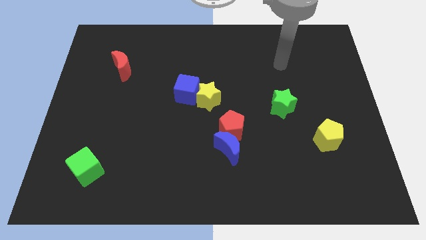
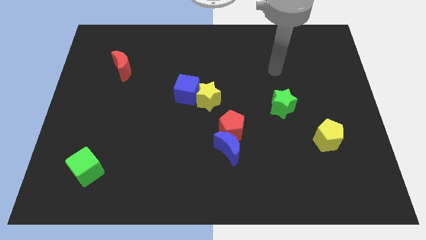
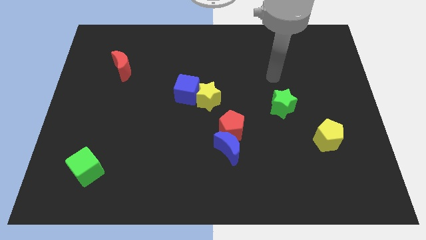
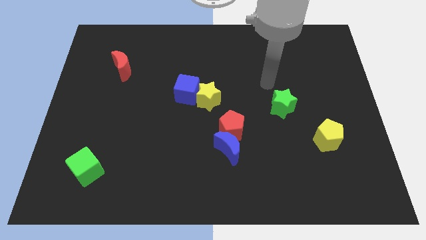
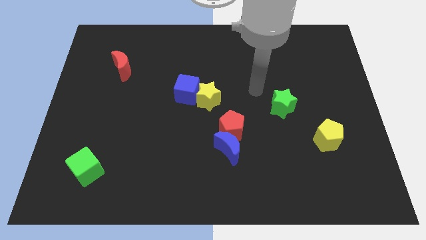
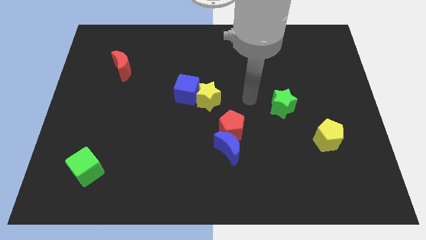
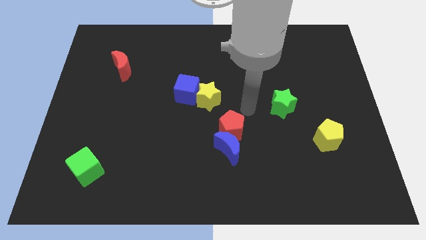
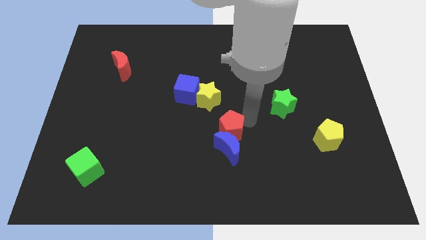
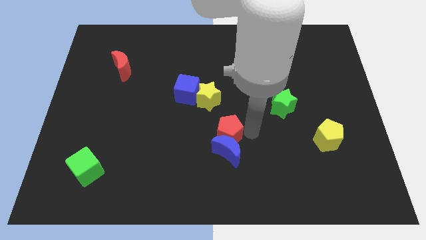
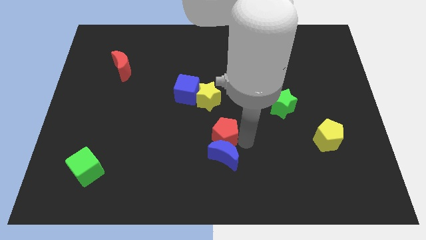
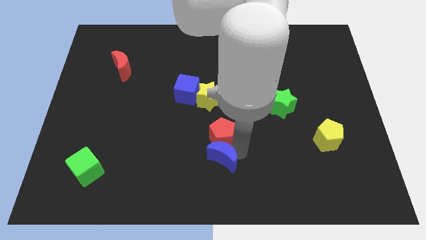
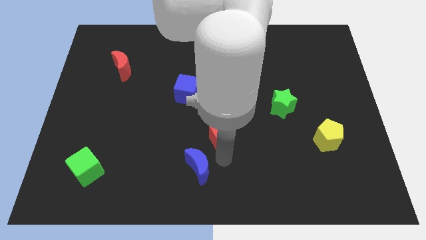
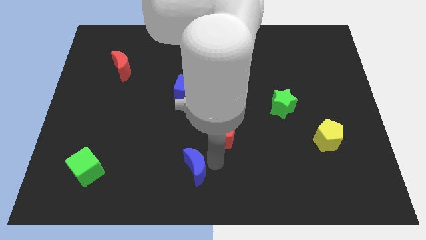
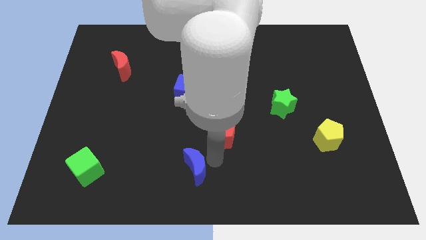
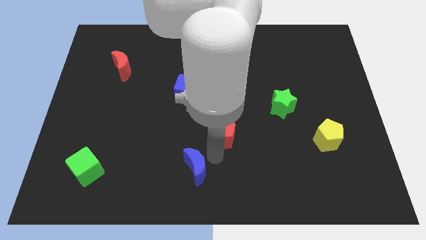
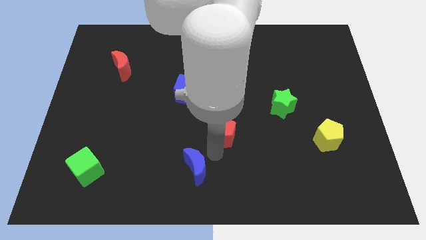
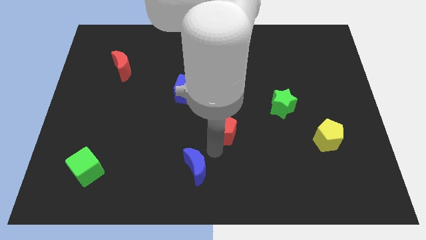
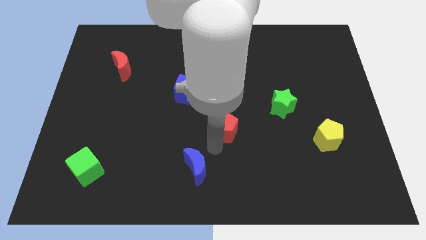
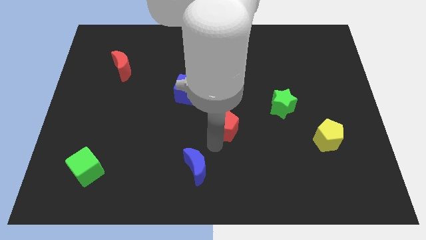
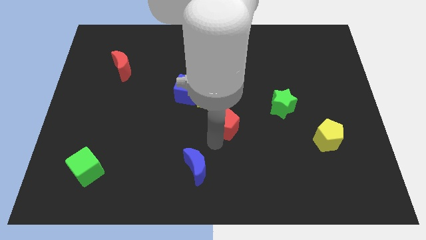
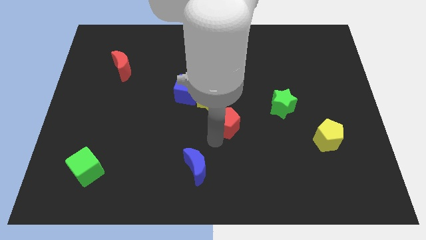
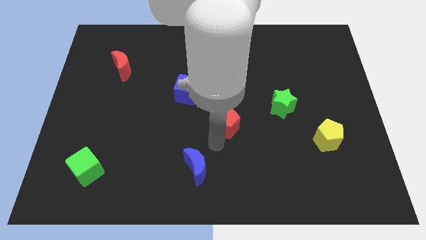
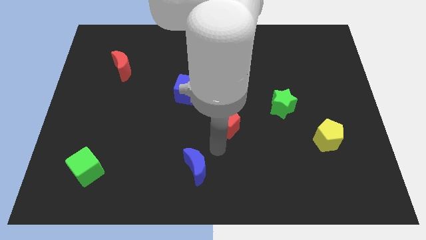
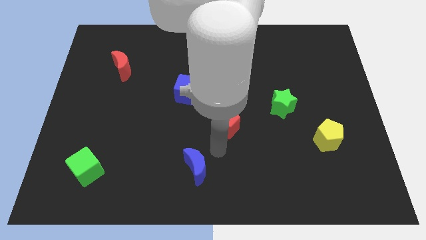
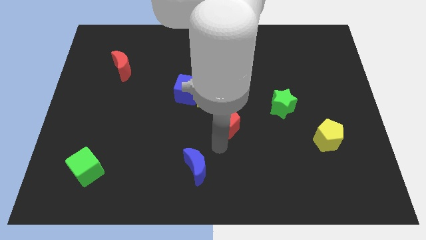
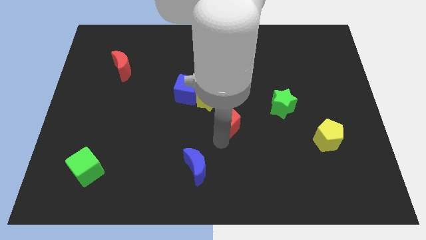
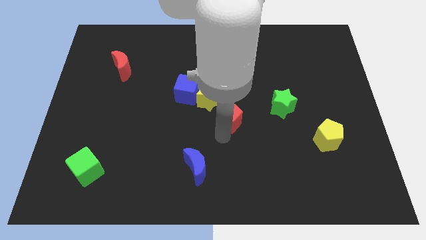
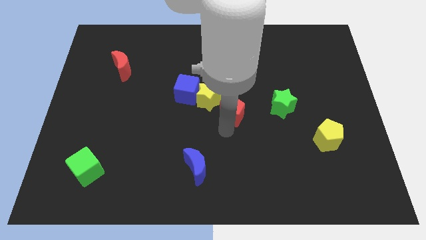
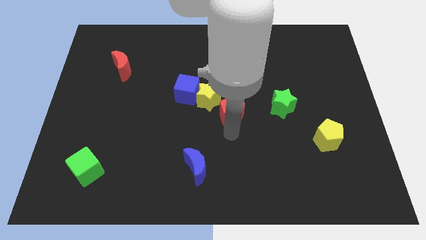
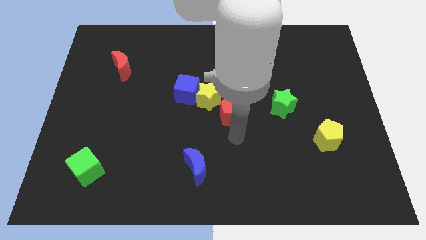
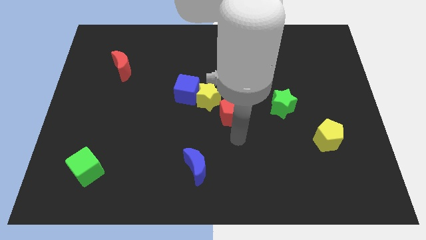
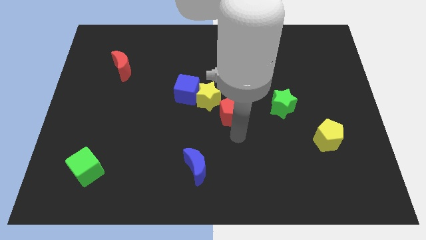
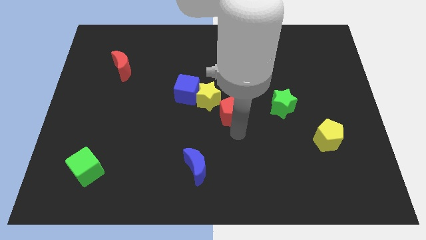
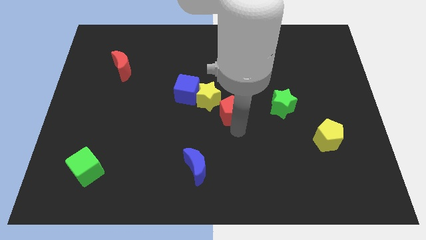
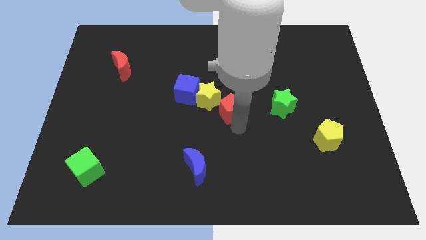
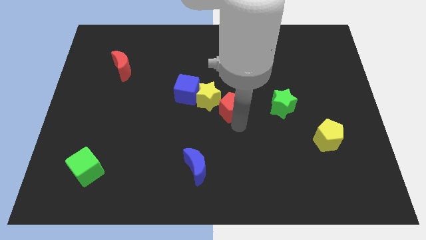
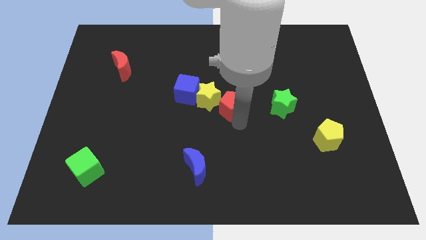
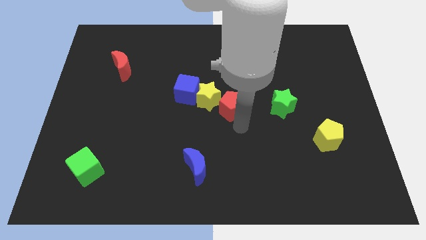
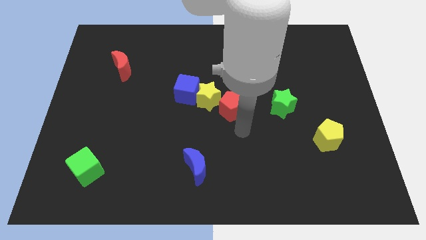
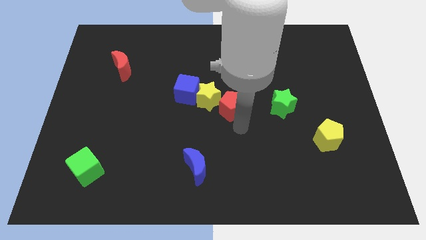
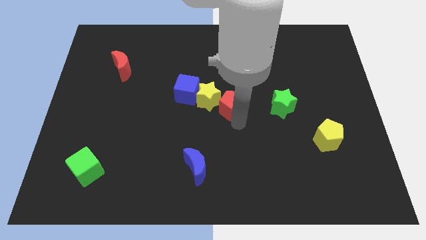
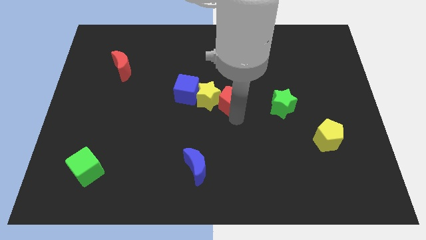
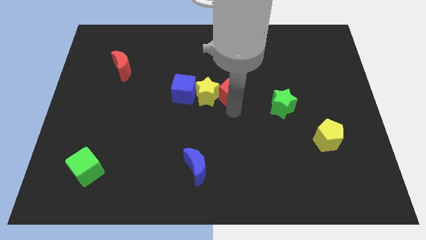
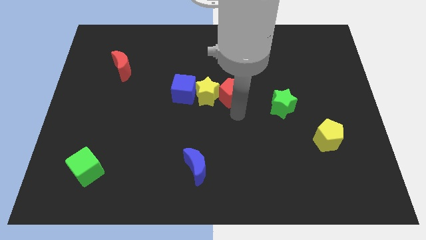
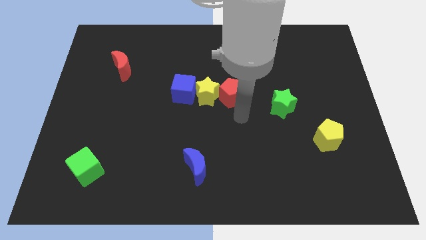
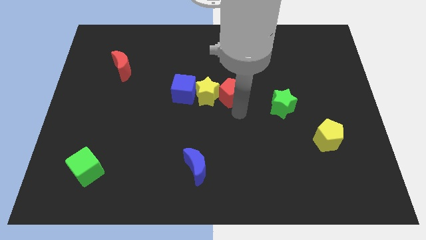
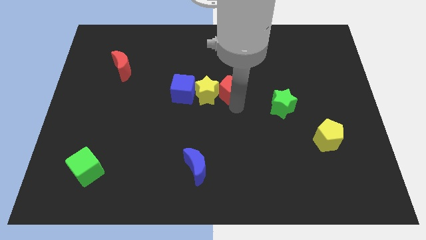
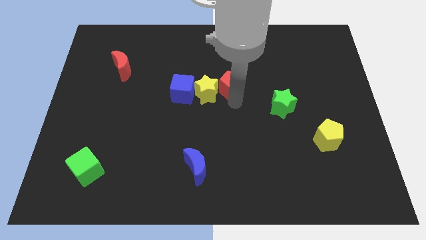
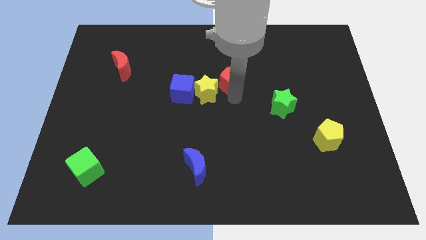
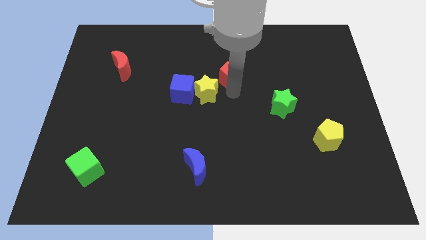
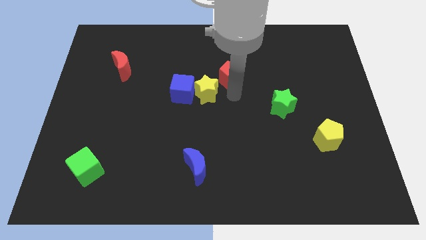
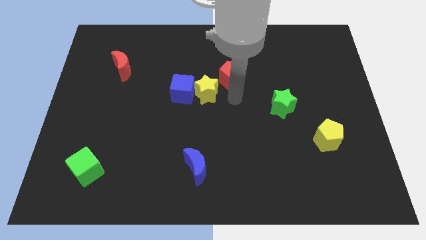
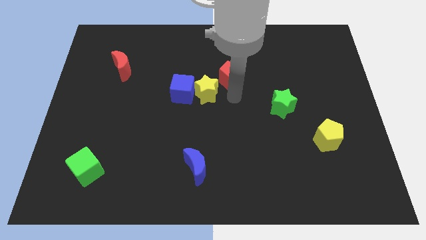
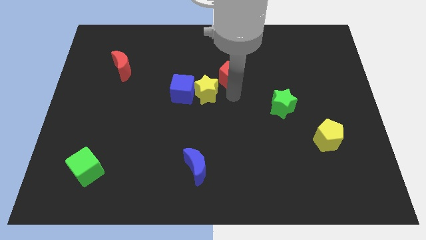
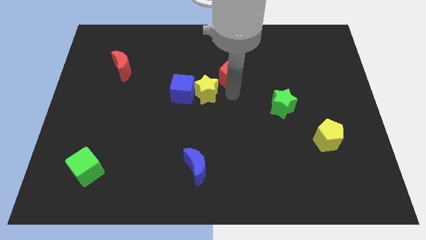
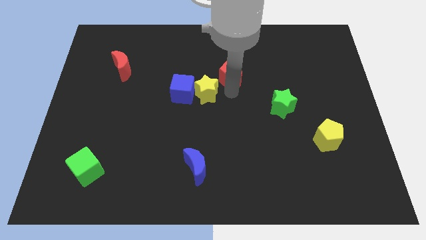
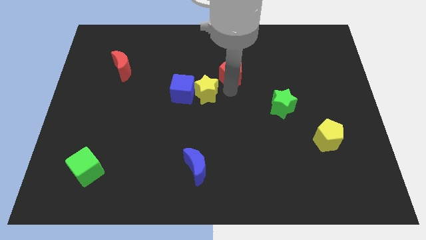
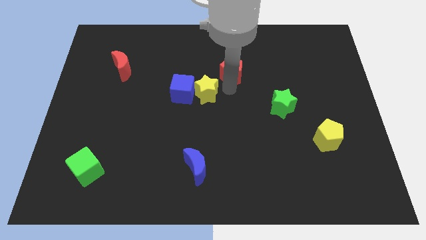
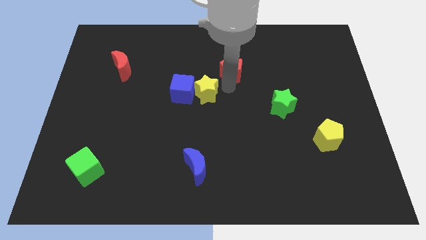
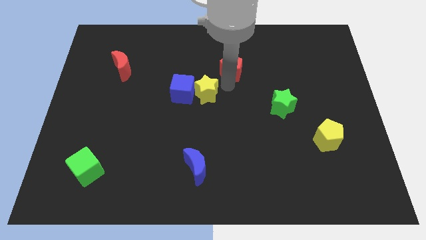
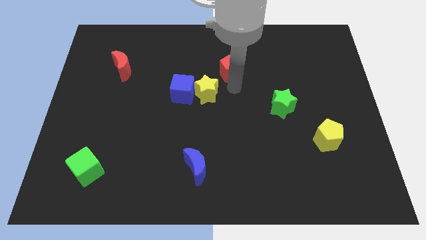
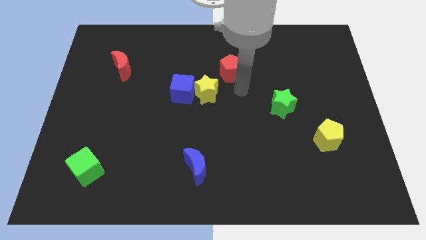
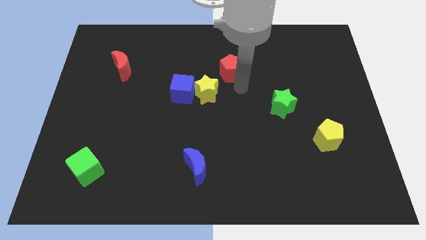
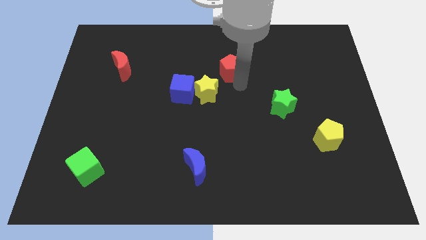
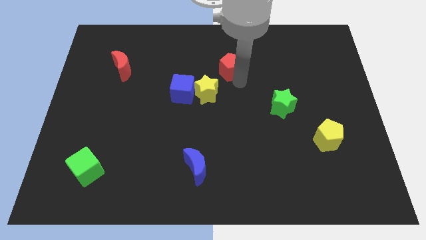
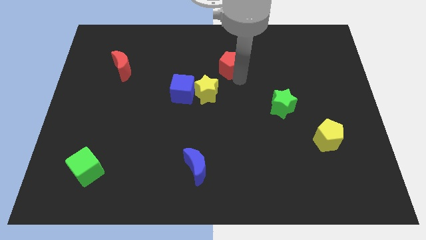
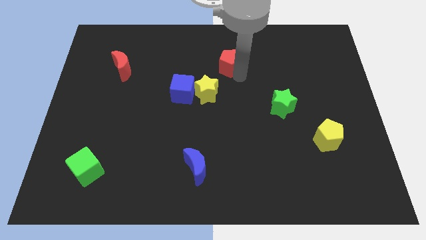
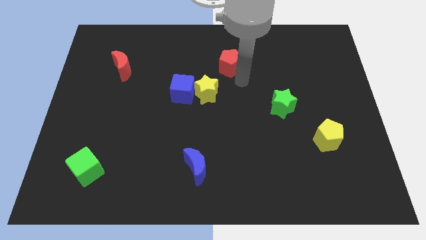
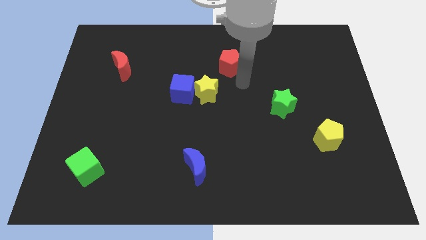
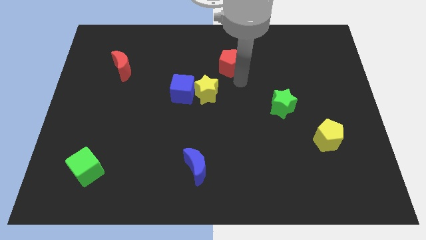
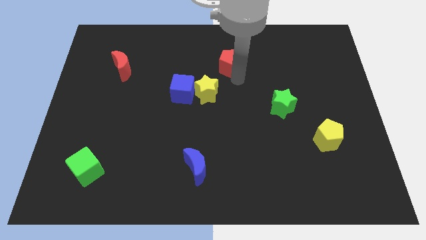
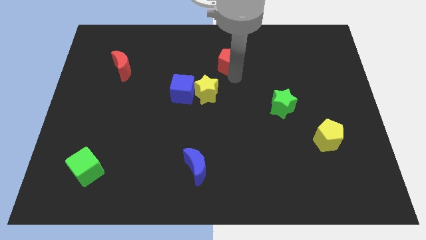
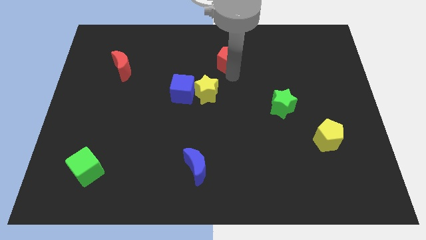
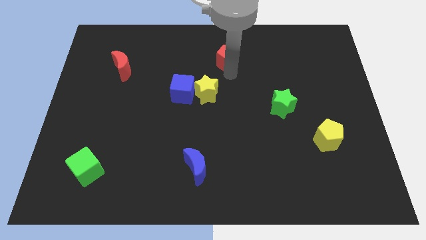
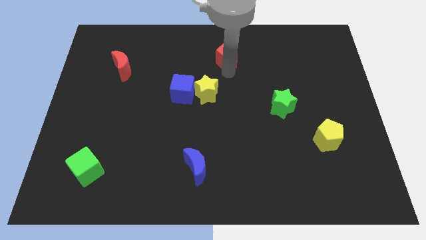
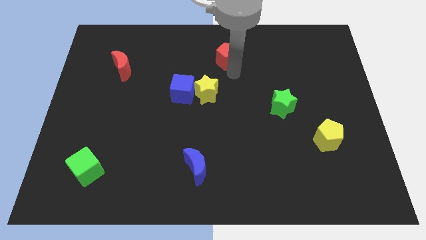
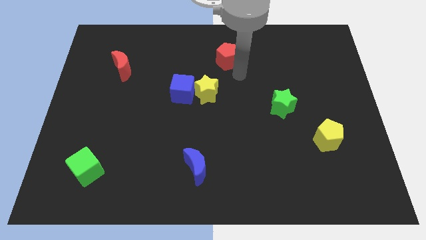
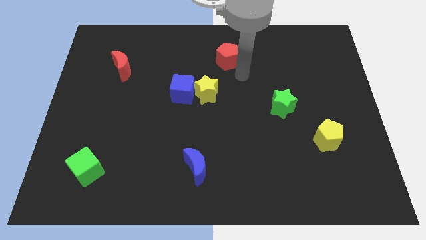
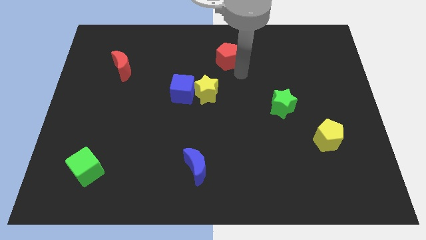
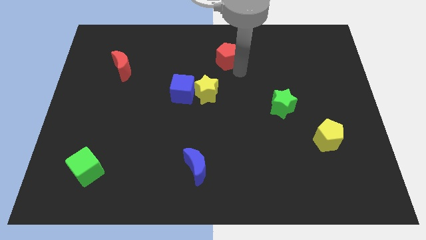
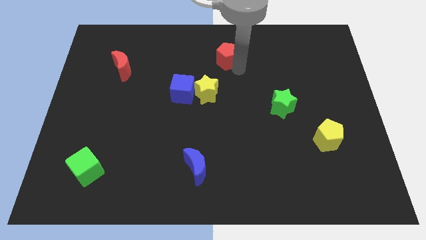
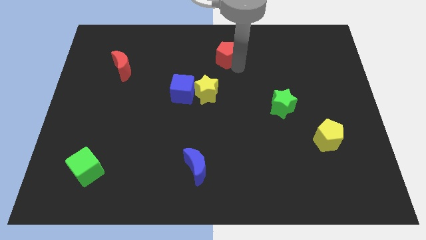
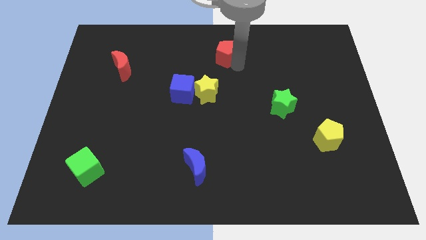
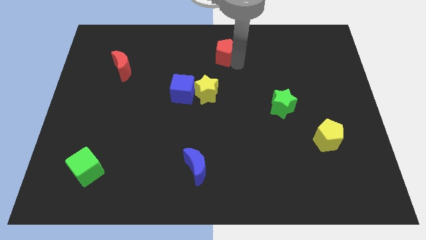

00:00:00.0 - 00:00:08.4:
slide the red pentagon to the towards your base
